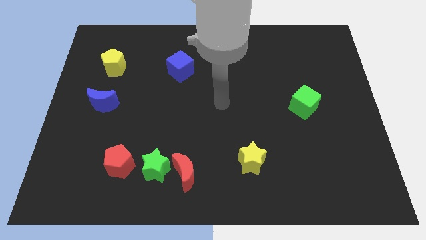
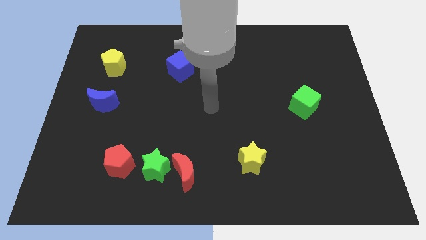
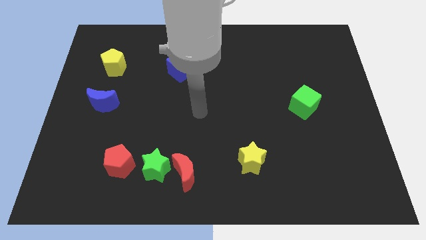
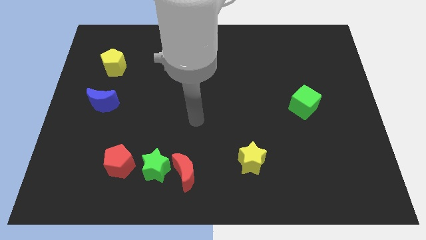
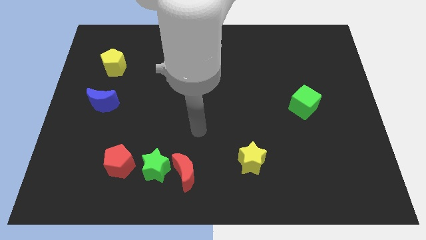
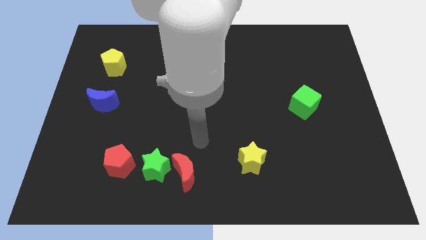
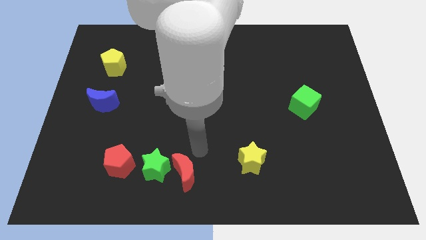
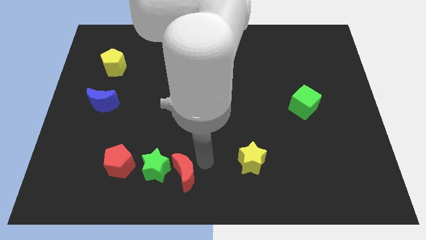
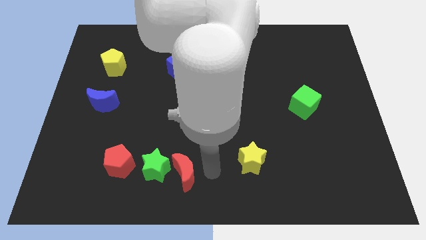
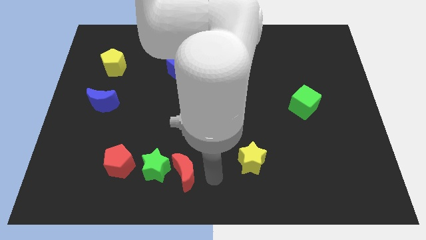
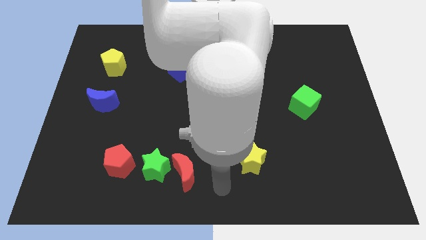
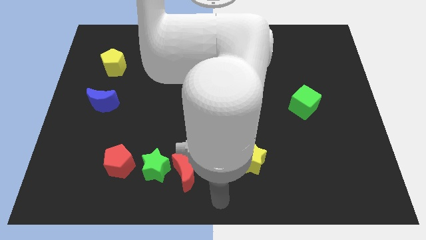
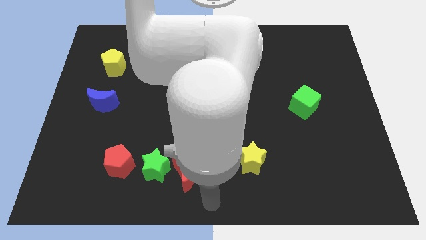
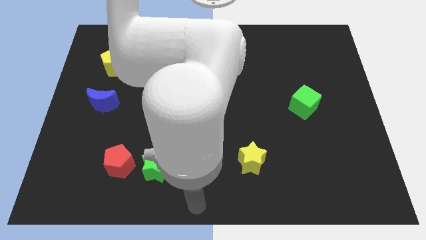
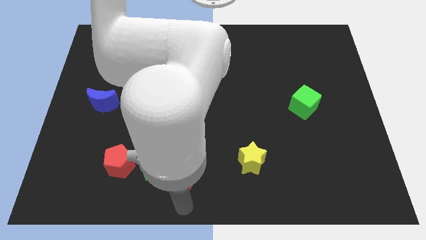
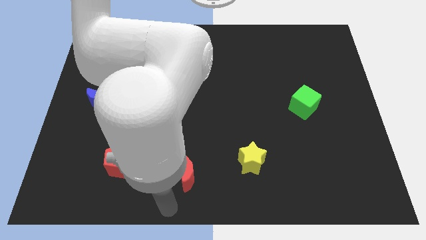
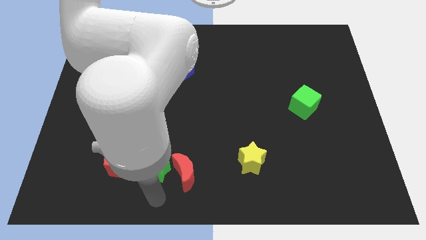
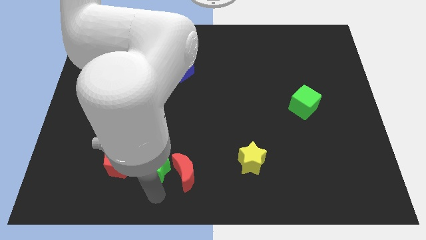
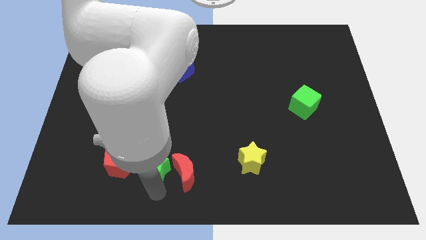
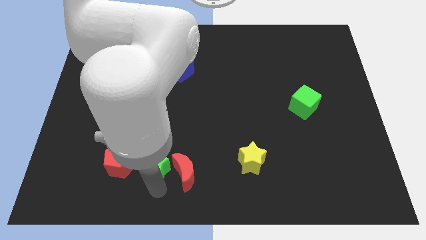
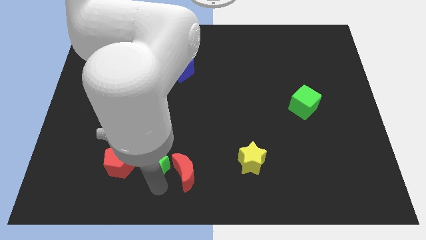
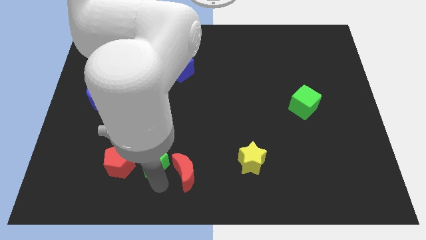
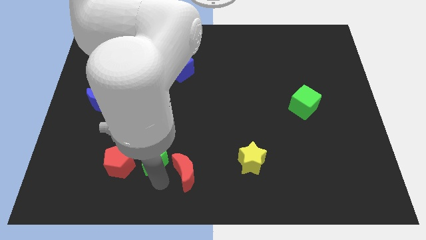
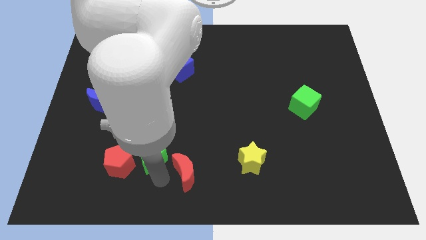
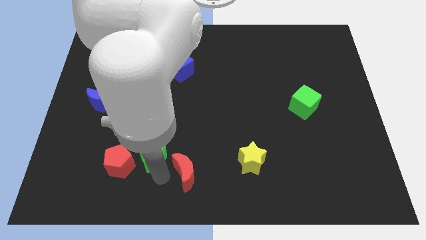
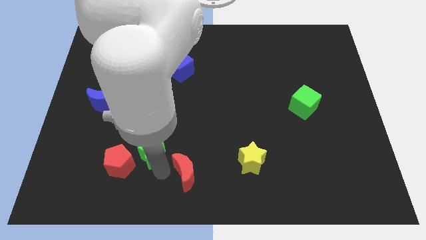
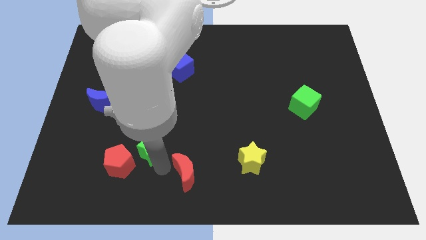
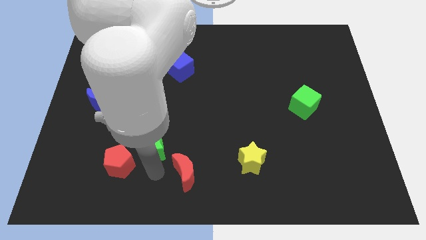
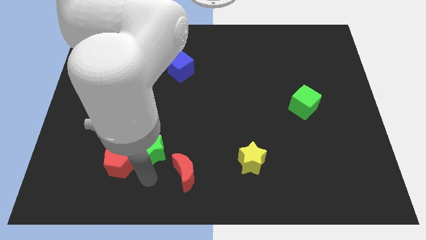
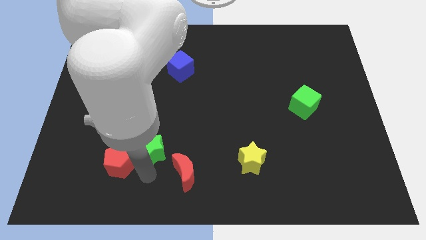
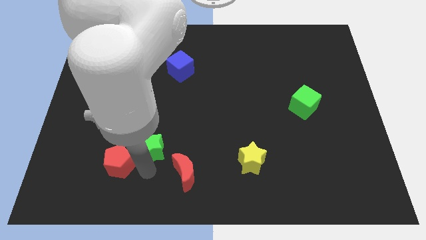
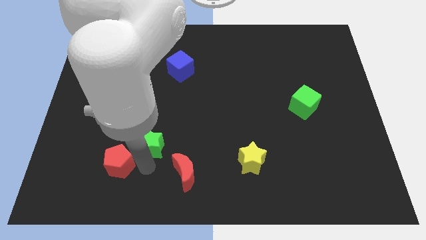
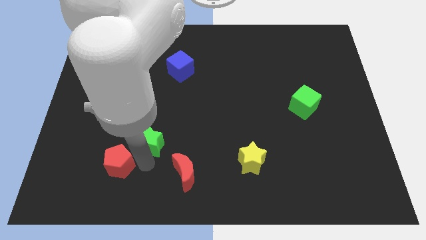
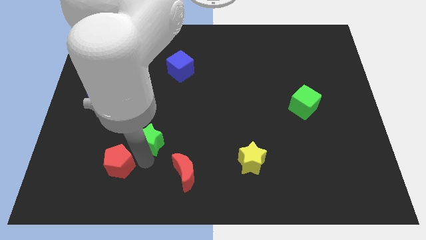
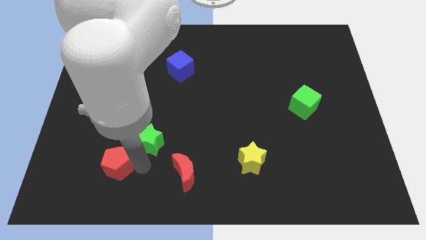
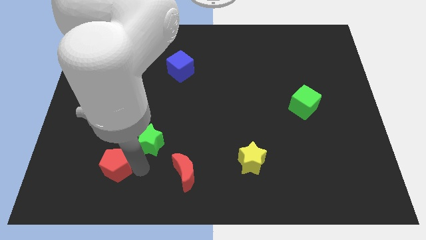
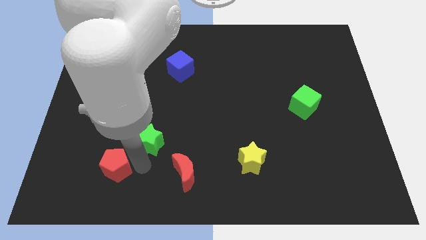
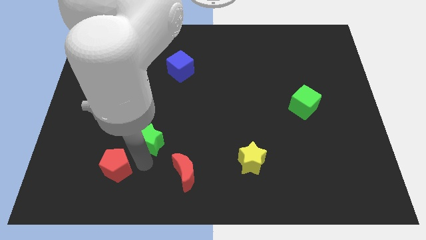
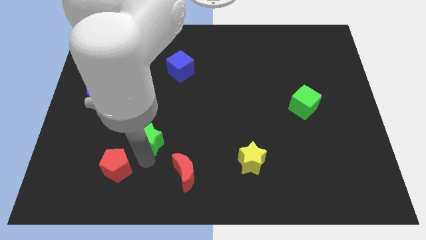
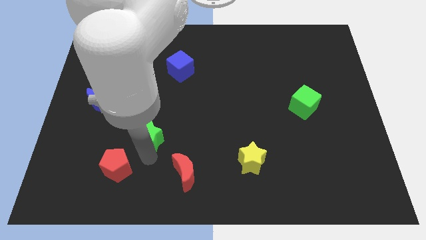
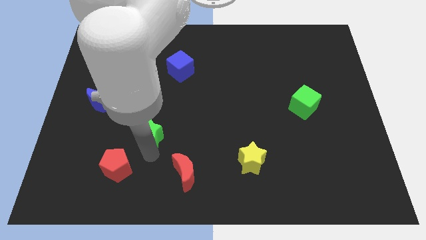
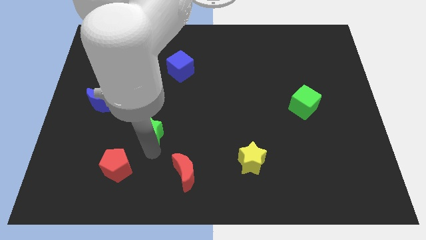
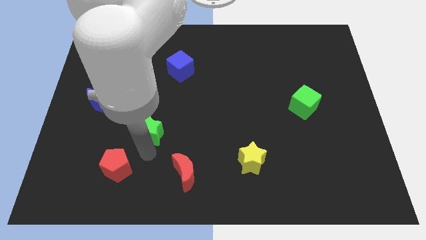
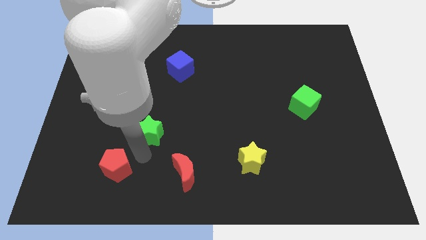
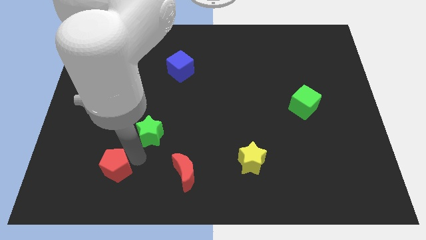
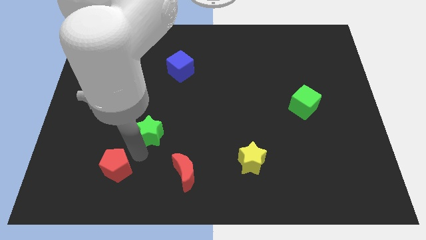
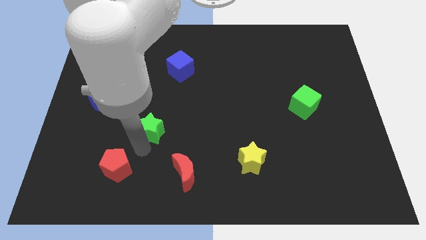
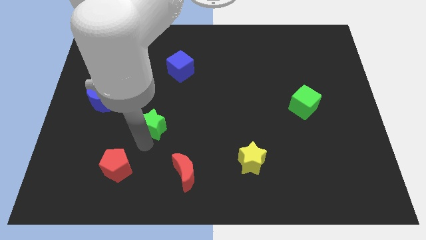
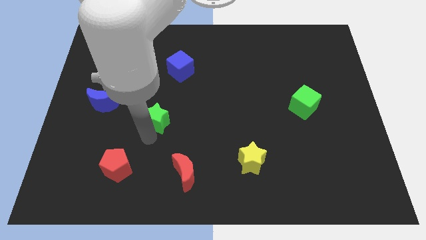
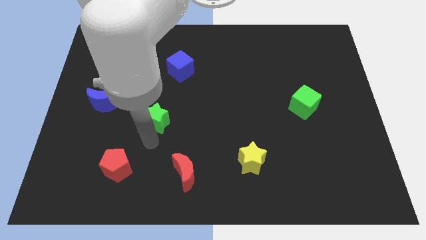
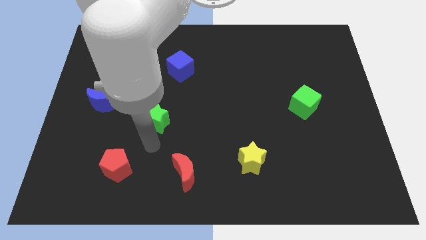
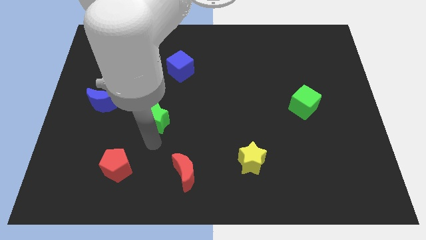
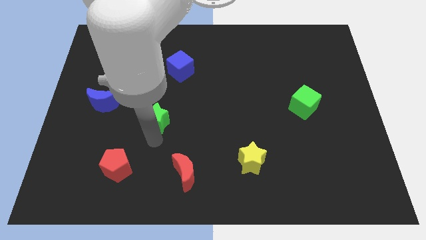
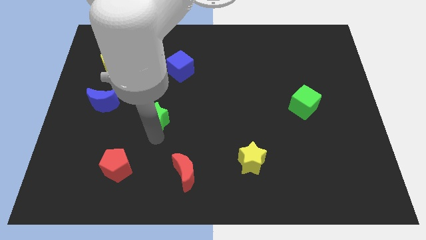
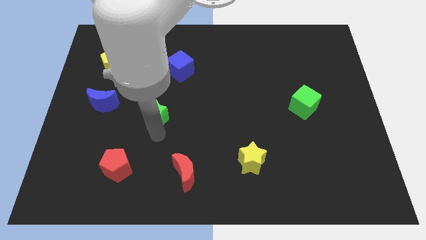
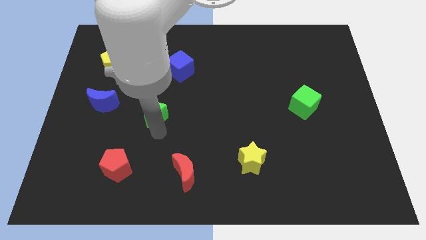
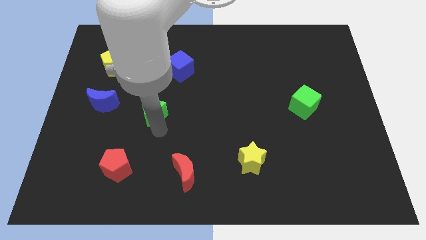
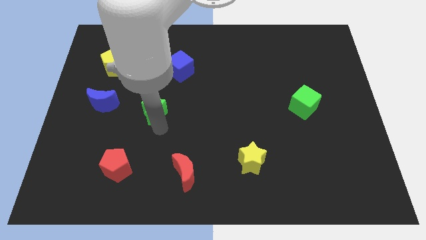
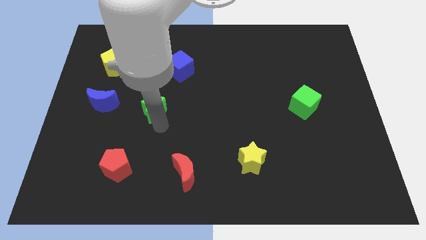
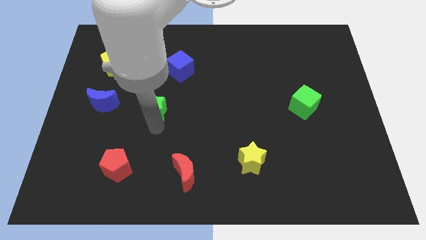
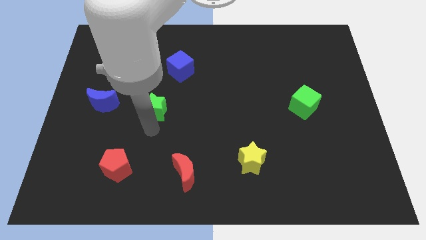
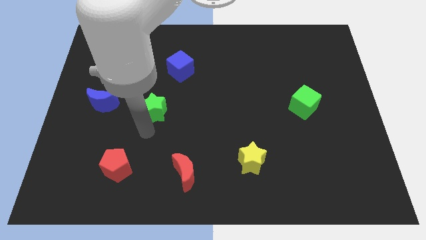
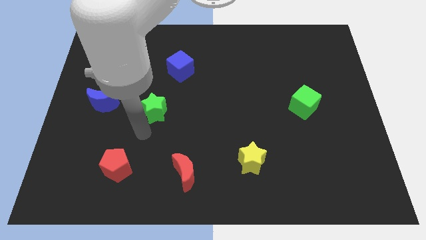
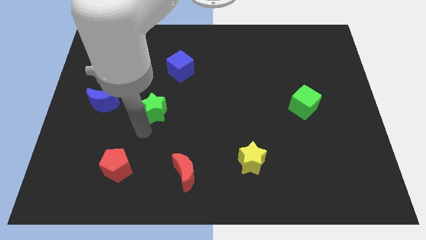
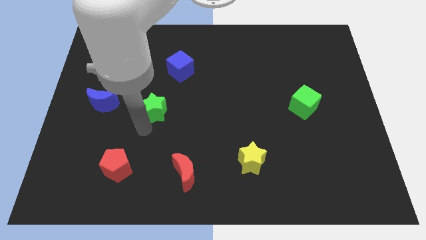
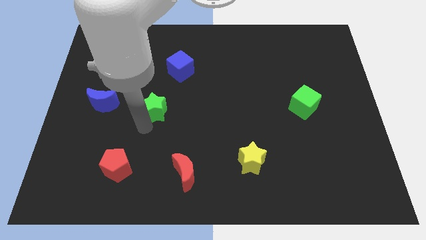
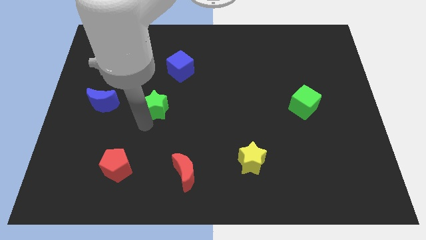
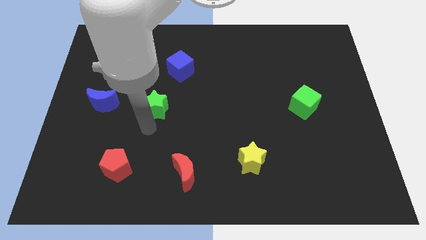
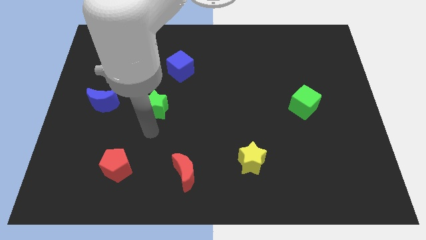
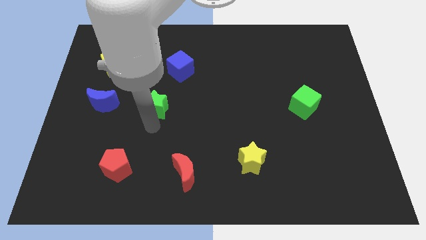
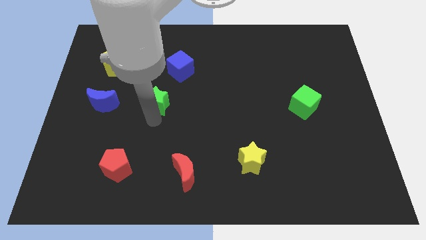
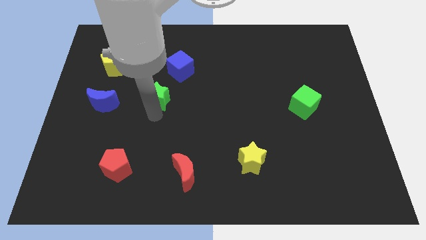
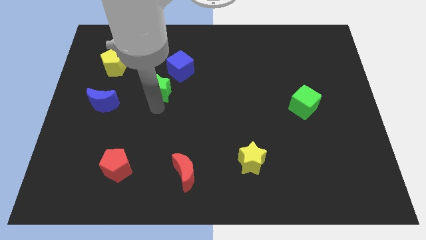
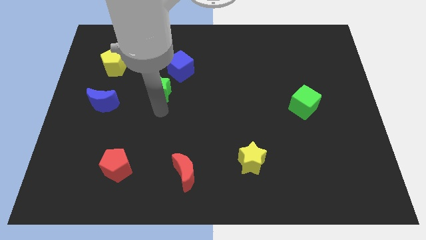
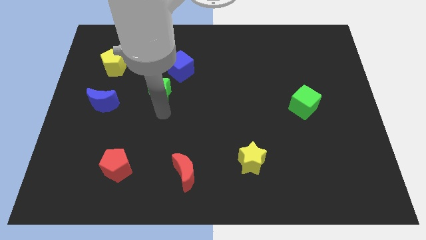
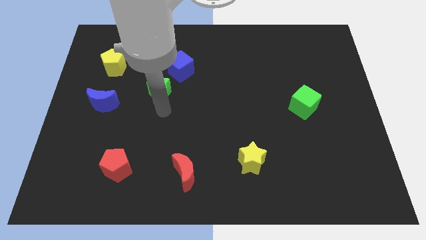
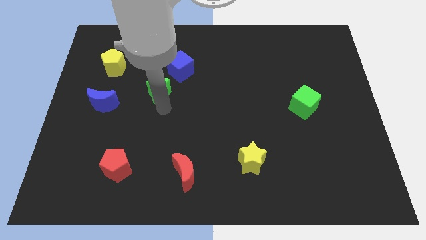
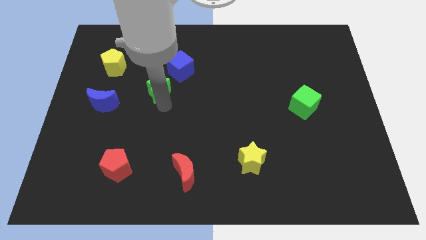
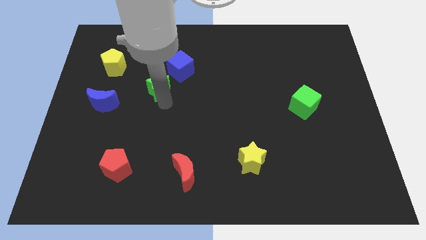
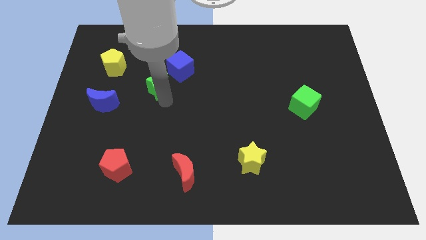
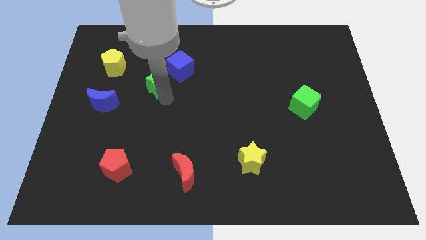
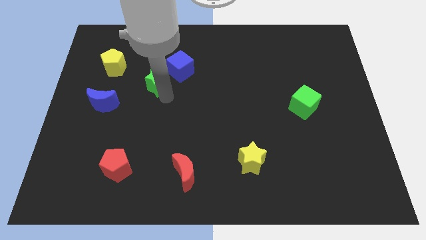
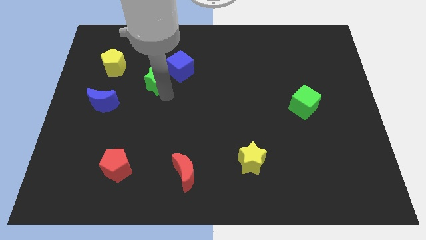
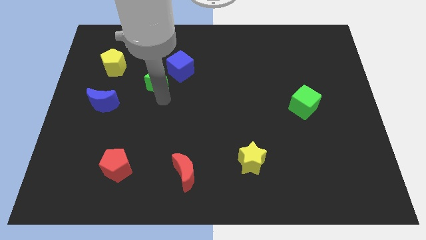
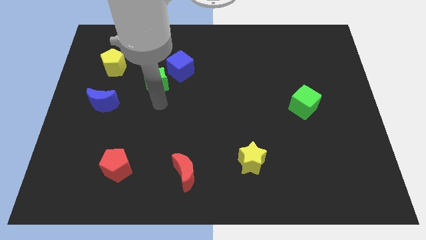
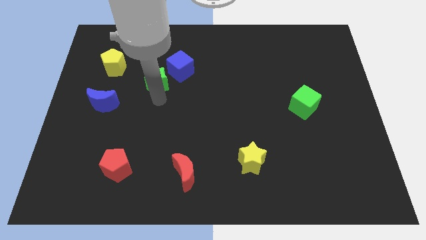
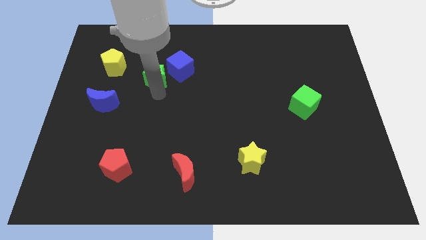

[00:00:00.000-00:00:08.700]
slide the green star just right of the yellow pentagon
